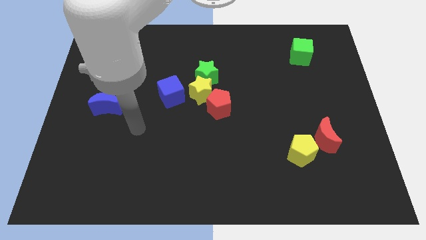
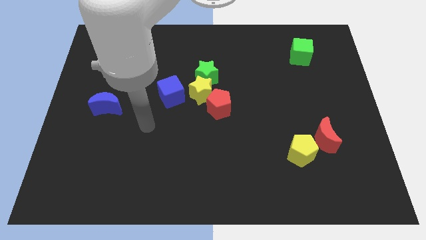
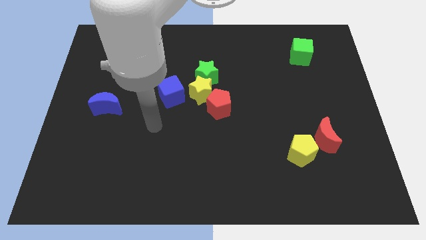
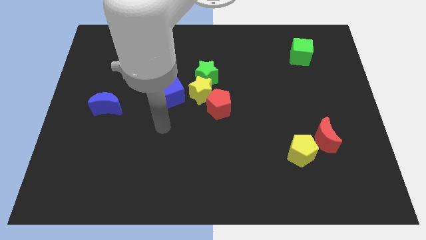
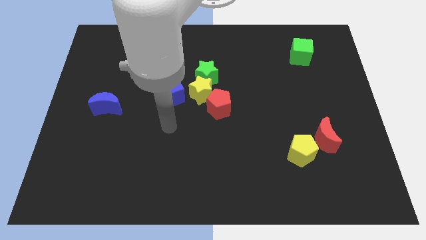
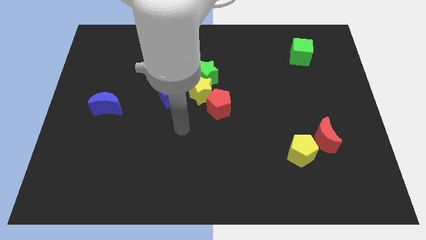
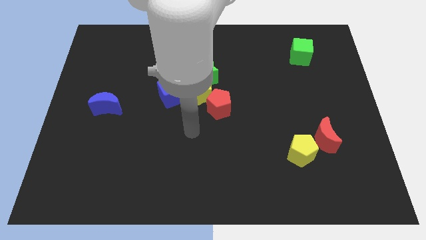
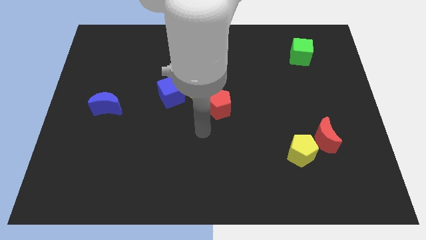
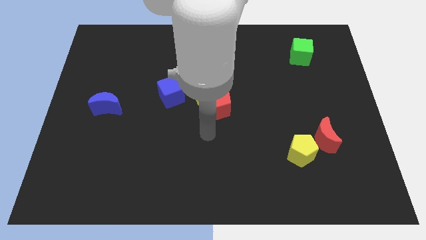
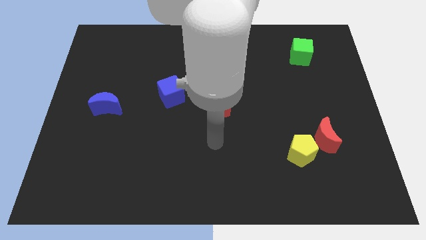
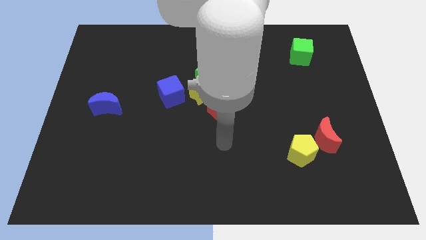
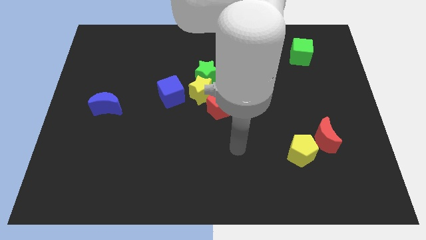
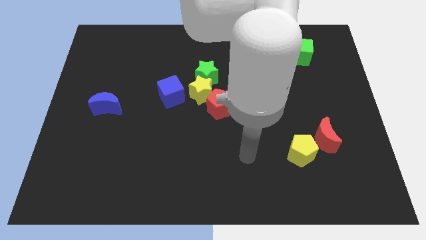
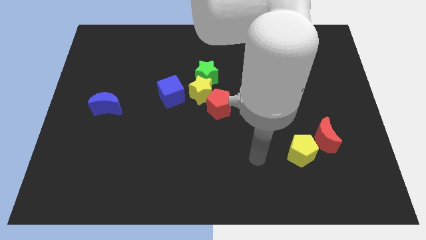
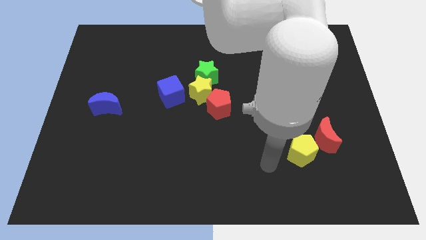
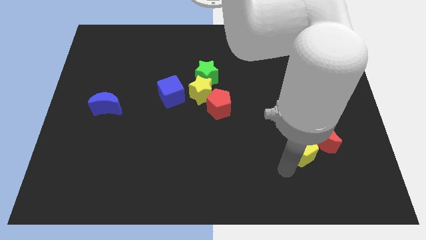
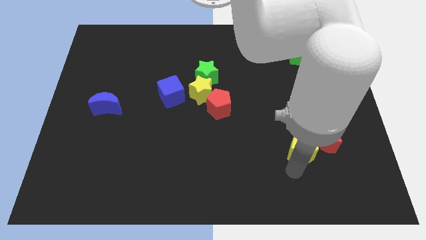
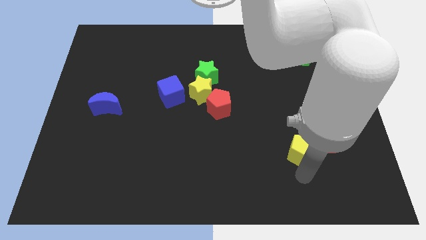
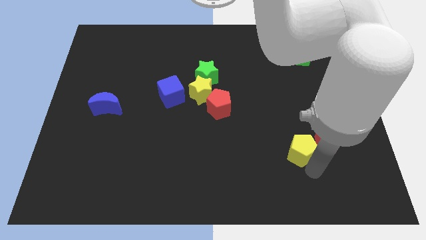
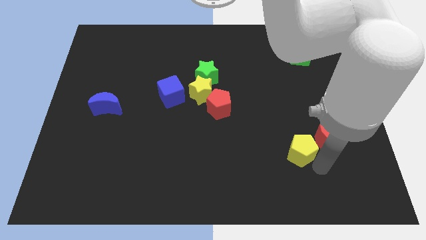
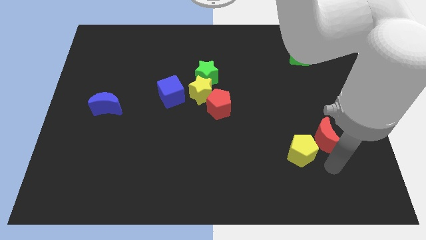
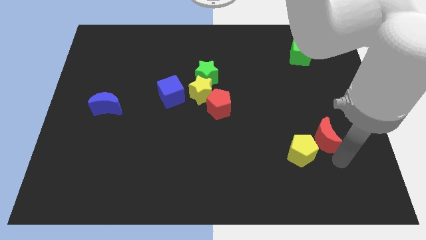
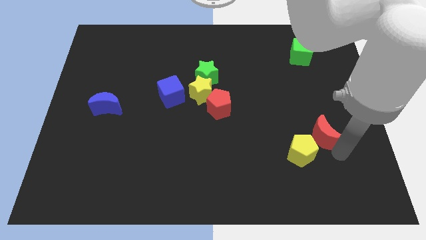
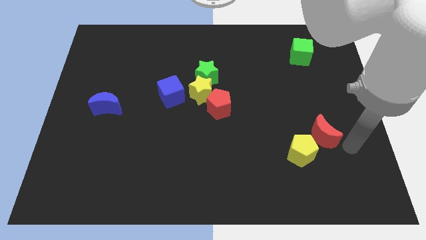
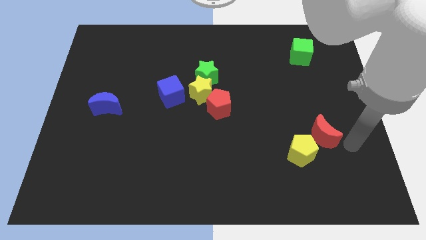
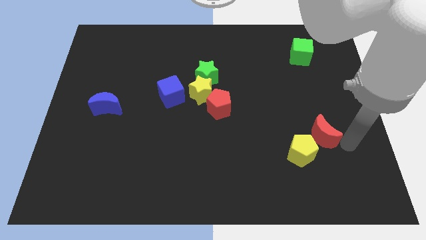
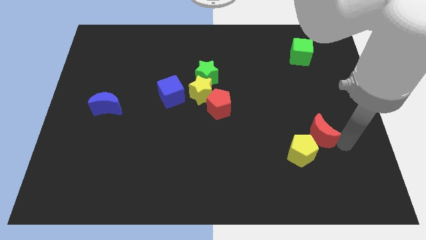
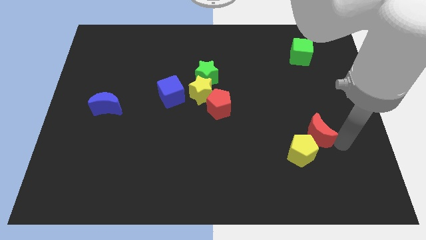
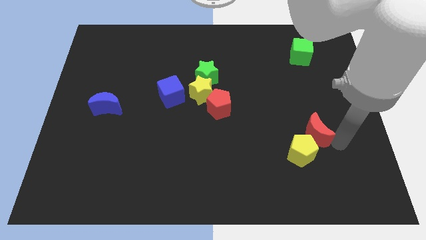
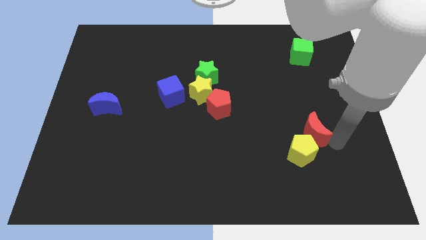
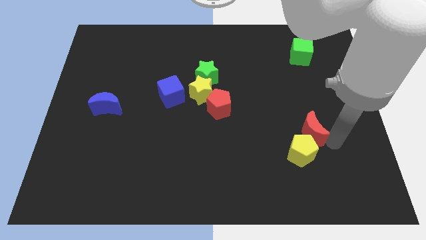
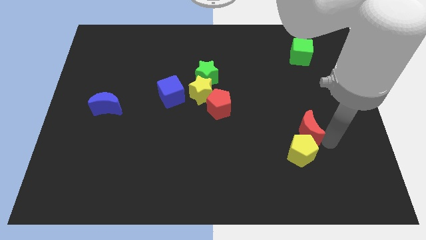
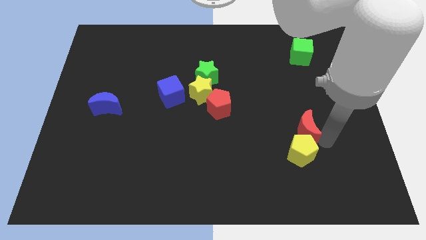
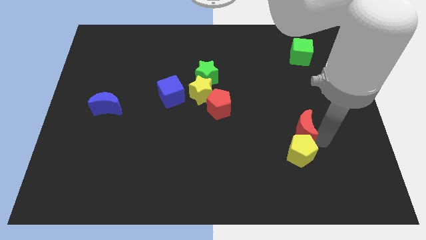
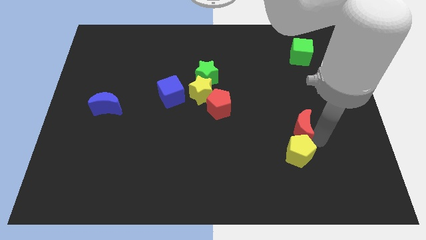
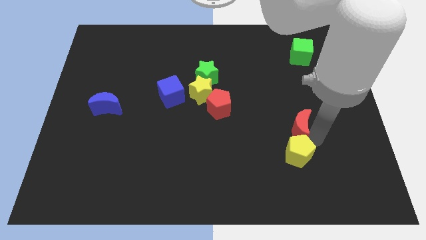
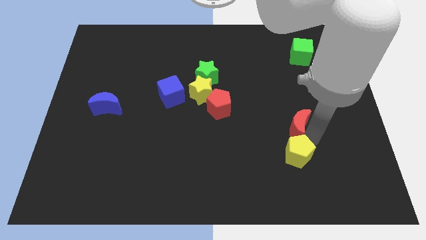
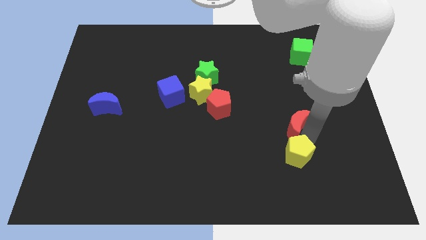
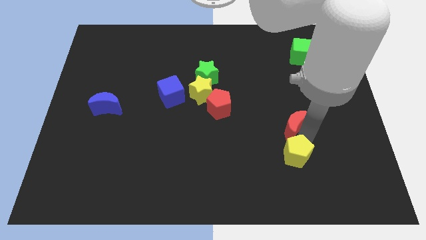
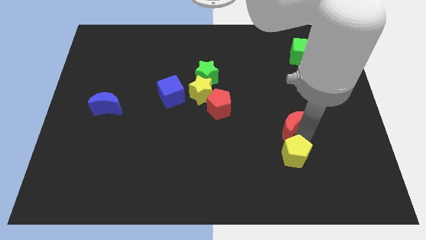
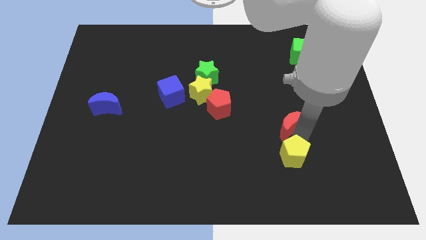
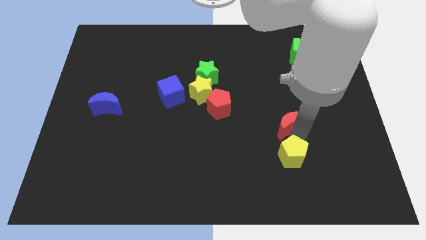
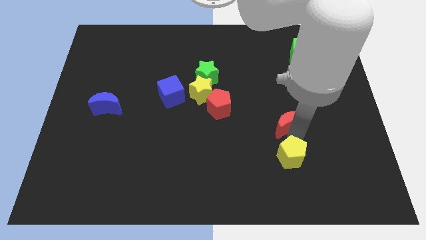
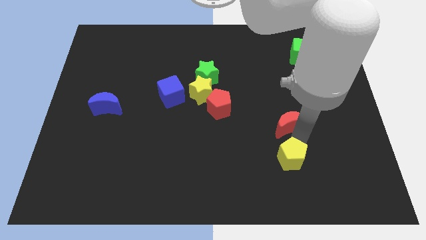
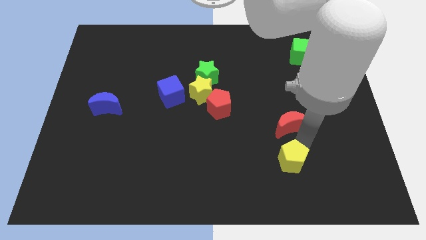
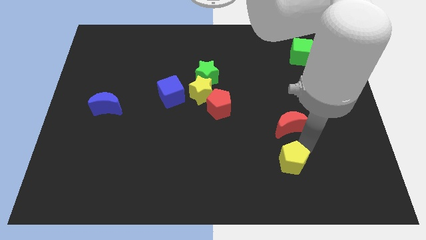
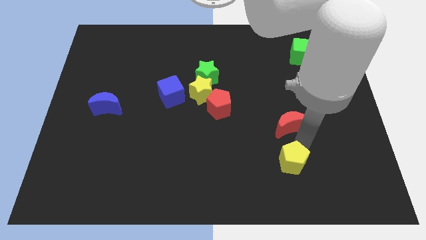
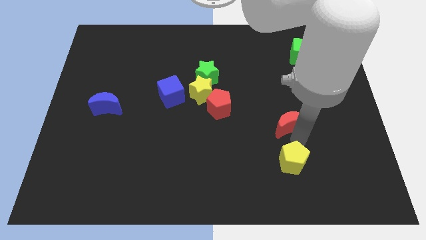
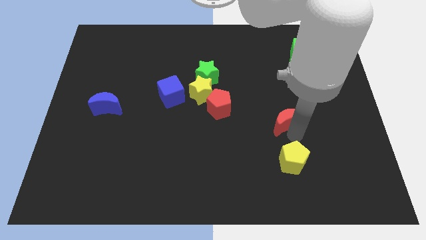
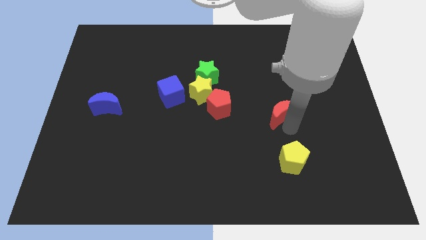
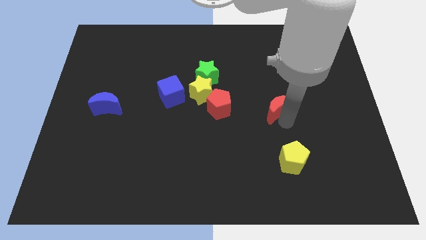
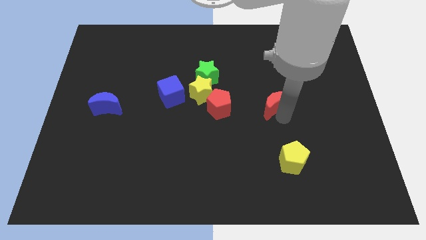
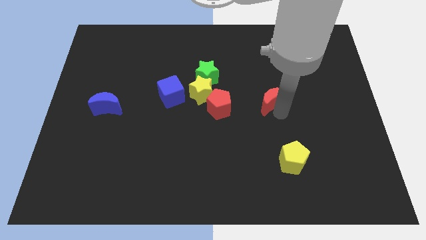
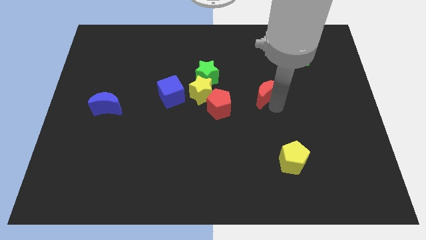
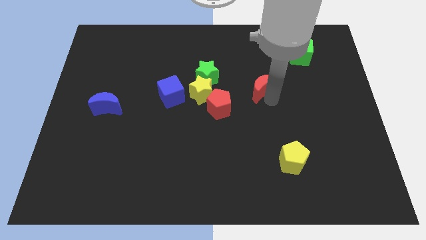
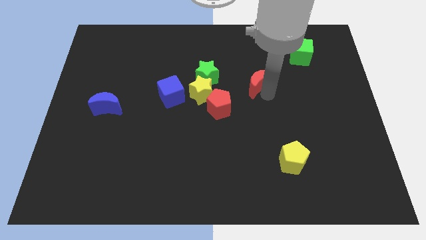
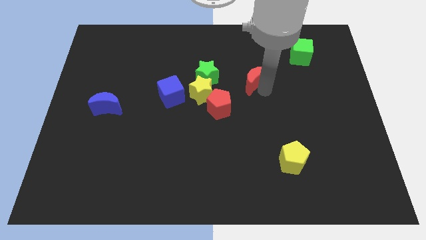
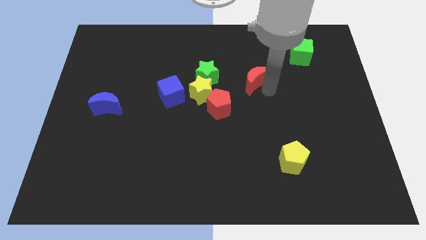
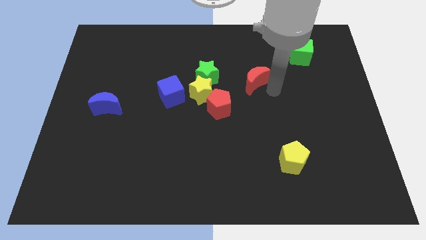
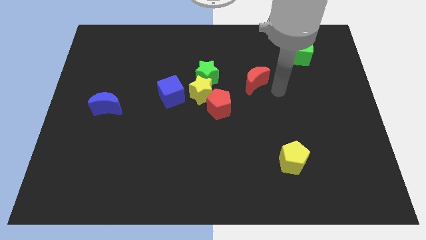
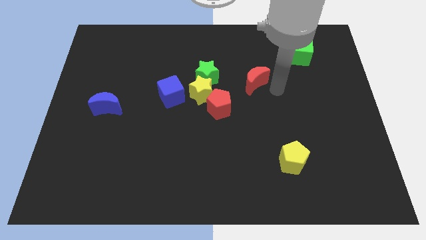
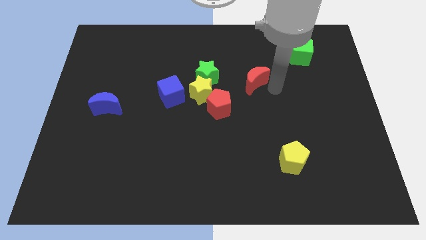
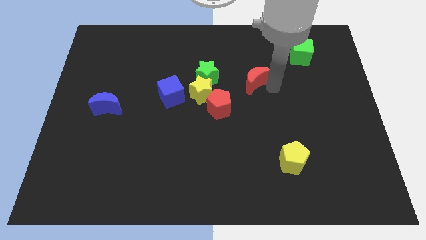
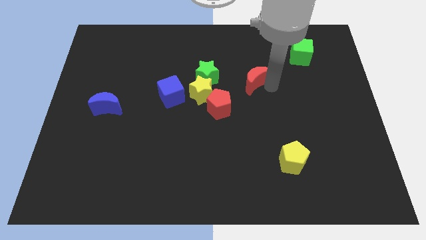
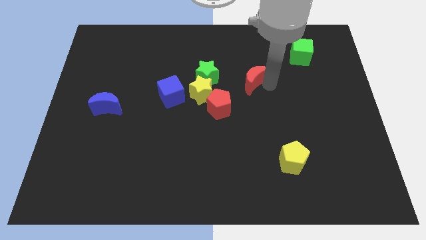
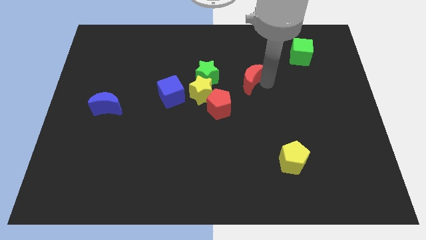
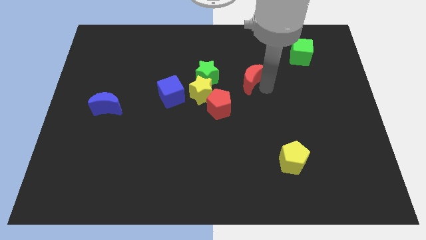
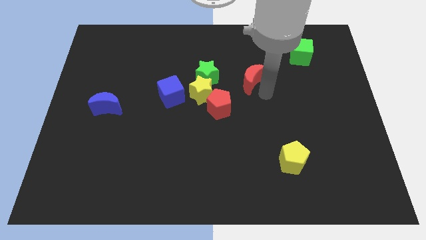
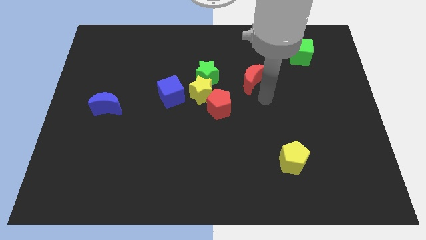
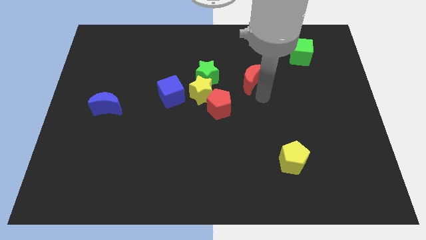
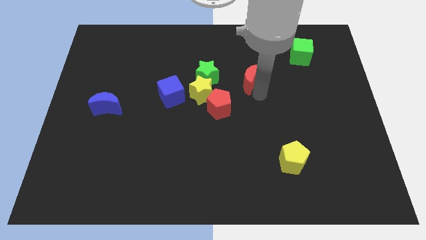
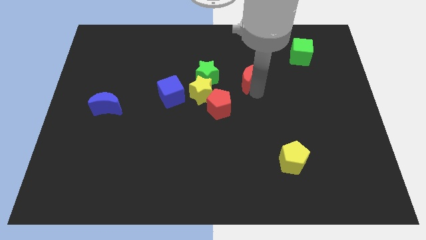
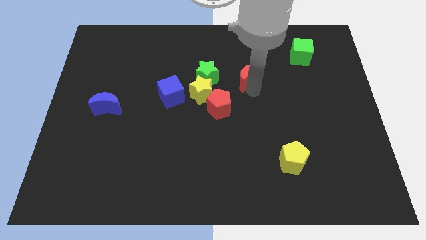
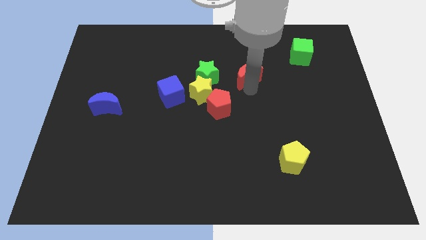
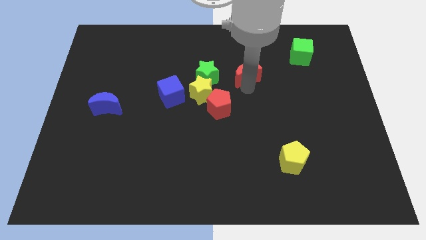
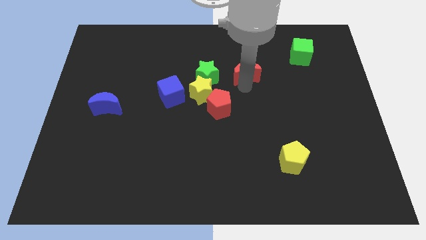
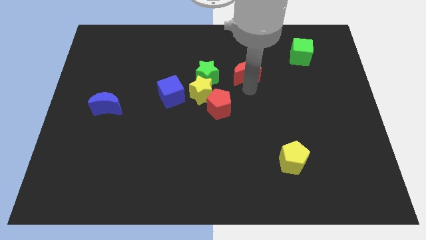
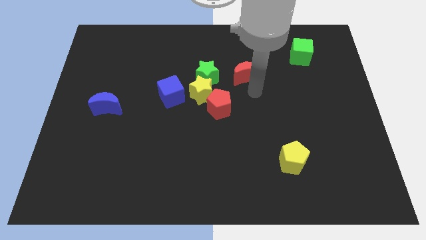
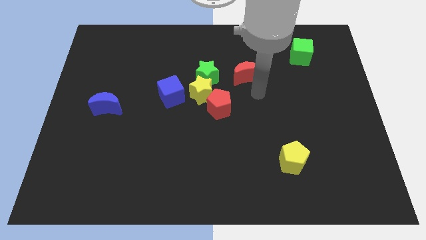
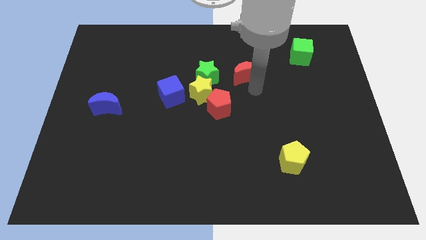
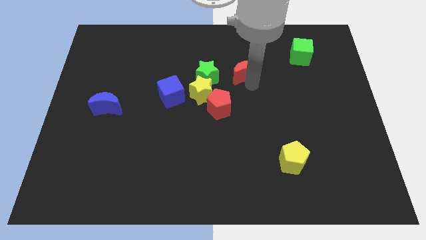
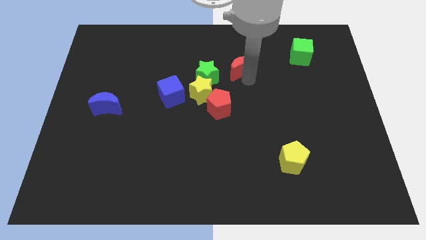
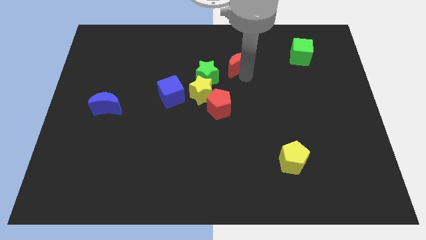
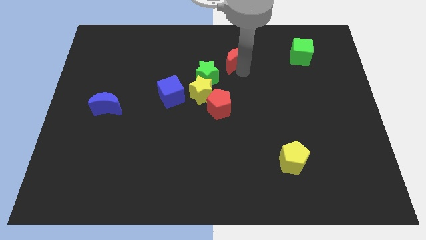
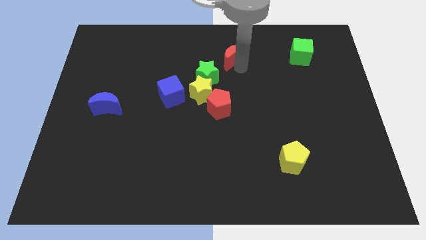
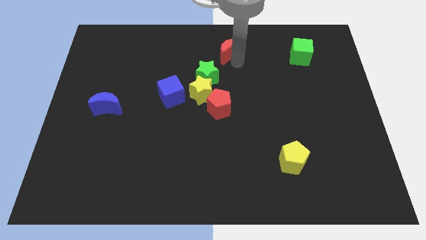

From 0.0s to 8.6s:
slide the red moon to the top side
